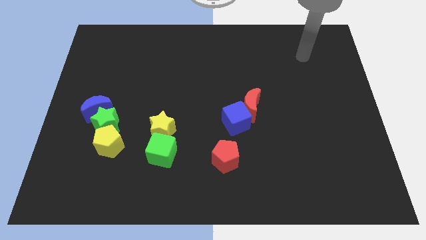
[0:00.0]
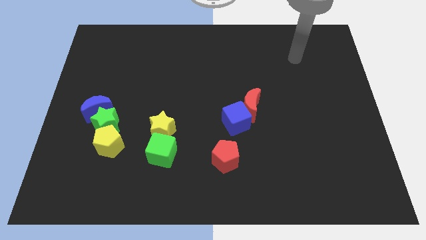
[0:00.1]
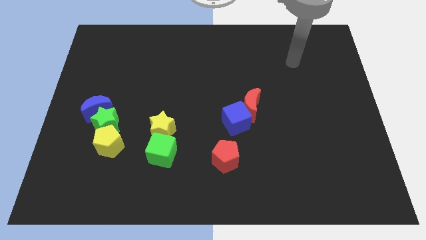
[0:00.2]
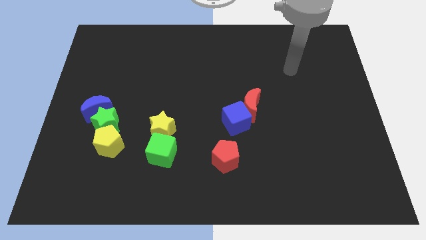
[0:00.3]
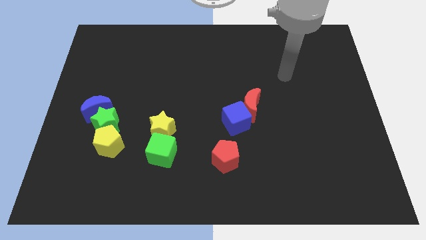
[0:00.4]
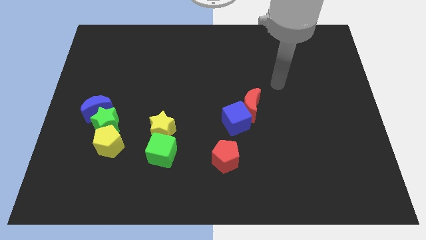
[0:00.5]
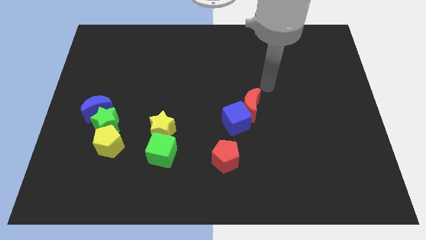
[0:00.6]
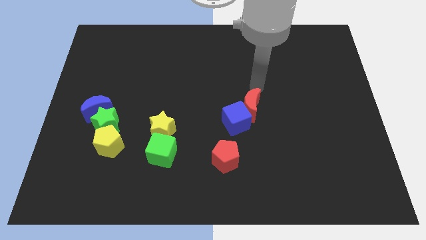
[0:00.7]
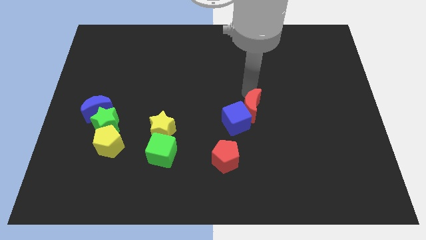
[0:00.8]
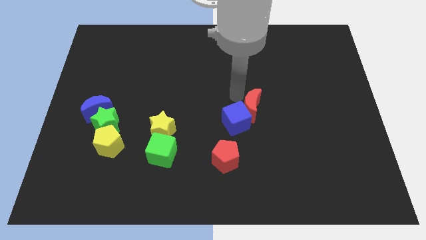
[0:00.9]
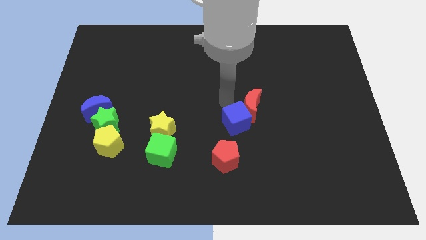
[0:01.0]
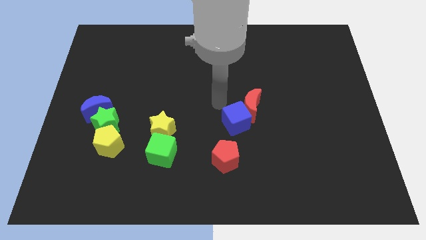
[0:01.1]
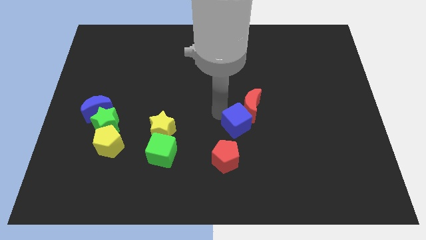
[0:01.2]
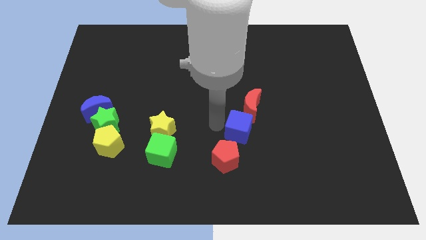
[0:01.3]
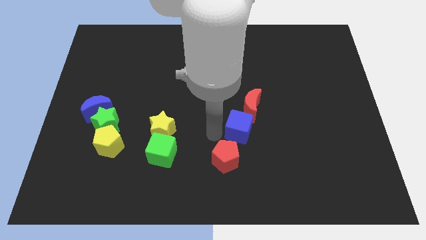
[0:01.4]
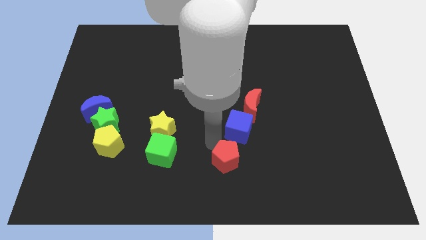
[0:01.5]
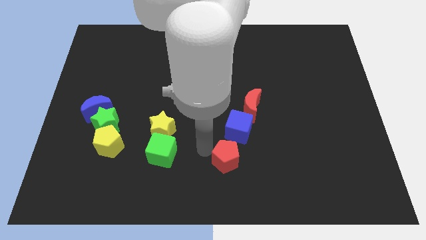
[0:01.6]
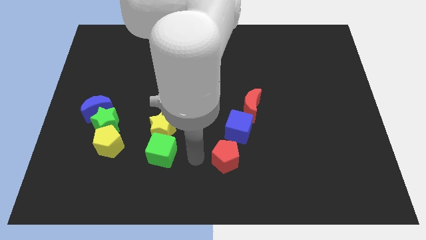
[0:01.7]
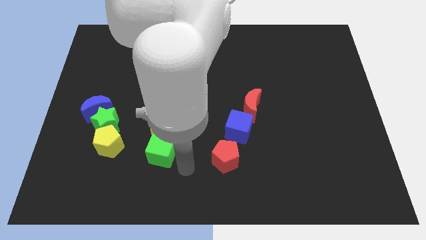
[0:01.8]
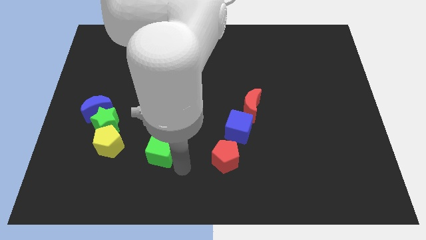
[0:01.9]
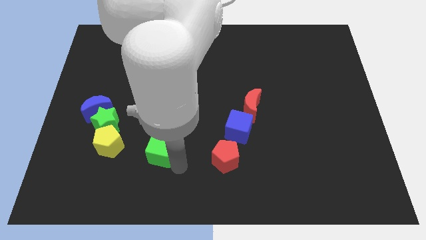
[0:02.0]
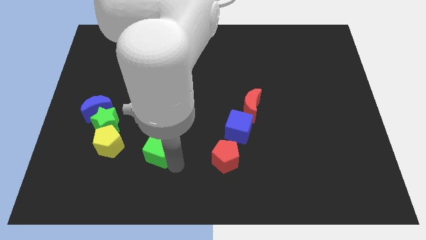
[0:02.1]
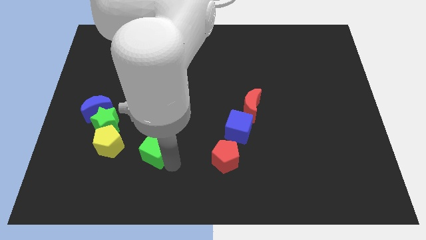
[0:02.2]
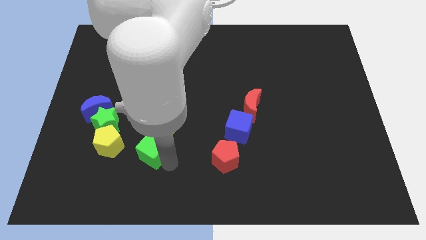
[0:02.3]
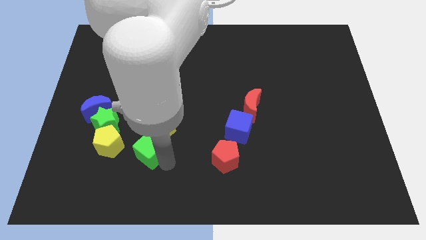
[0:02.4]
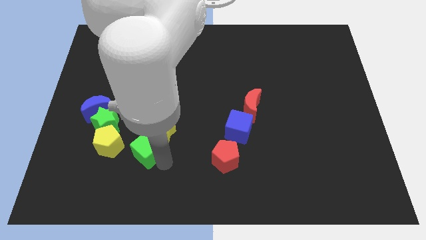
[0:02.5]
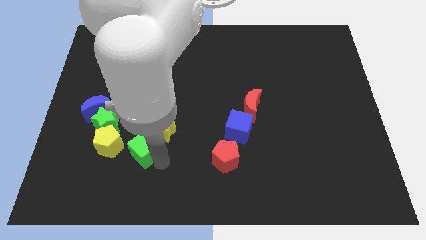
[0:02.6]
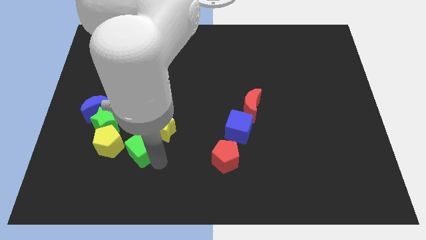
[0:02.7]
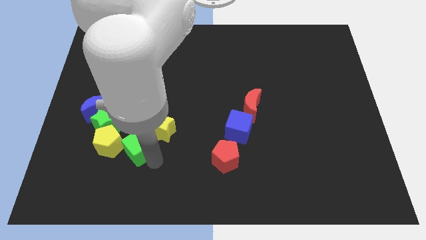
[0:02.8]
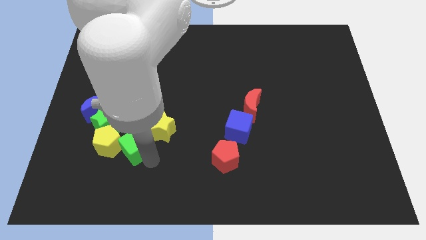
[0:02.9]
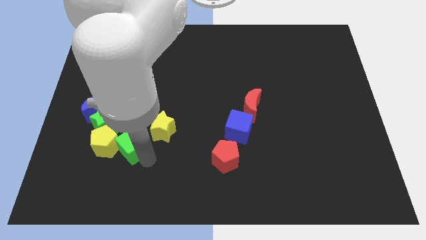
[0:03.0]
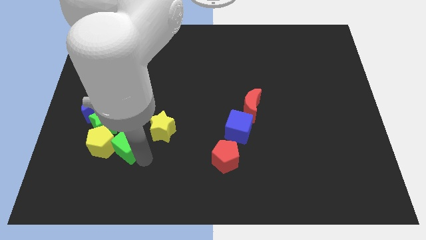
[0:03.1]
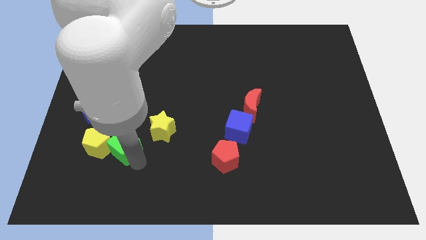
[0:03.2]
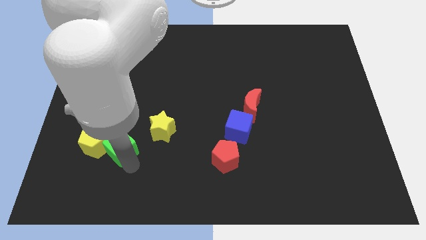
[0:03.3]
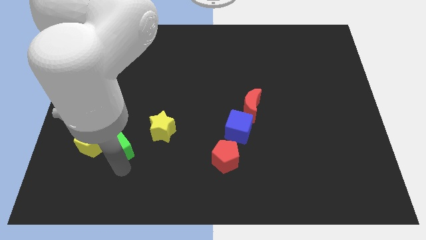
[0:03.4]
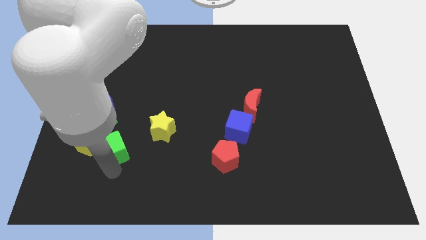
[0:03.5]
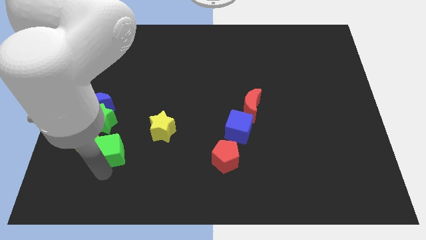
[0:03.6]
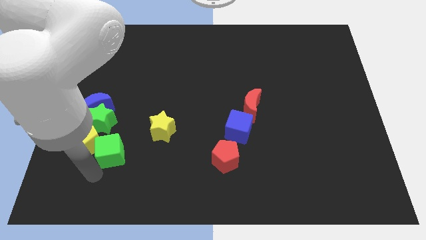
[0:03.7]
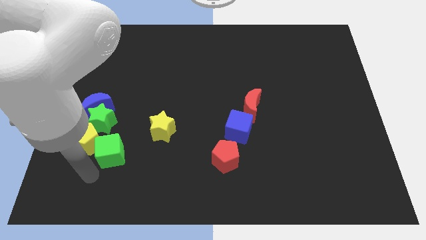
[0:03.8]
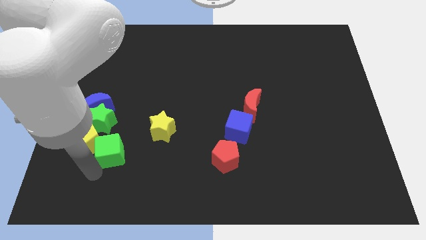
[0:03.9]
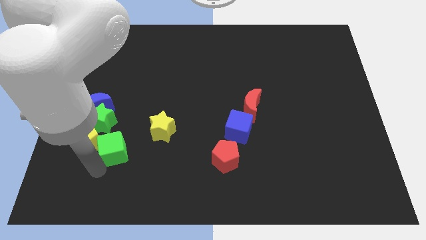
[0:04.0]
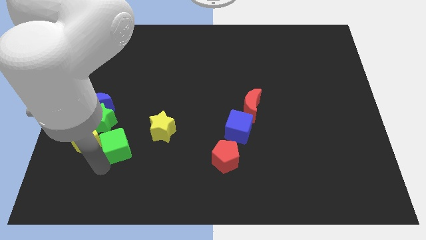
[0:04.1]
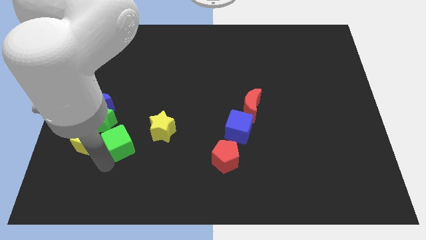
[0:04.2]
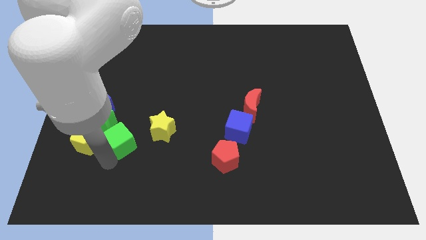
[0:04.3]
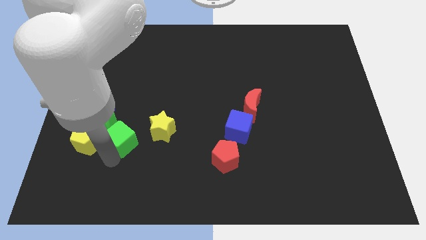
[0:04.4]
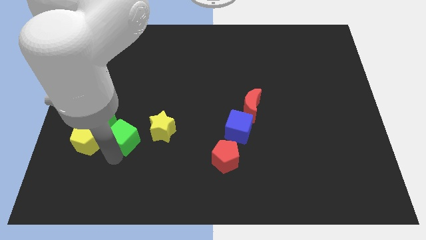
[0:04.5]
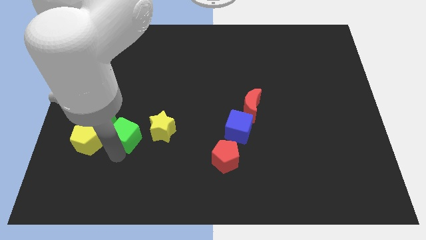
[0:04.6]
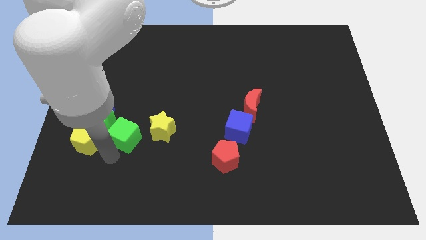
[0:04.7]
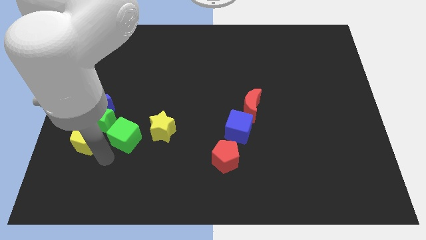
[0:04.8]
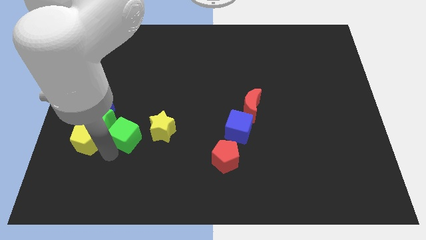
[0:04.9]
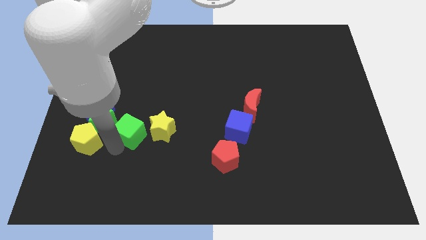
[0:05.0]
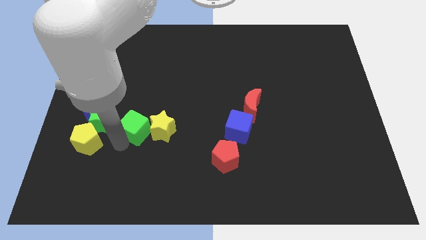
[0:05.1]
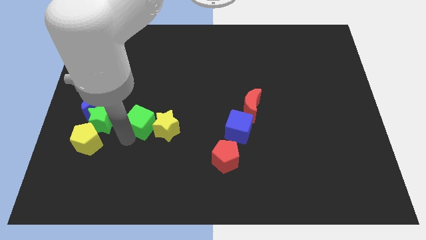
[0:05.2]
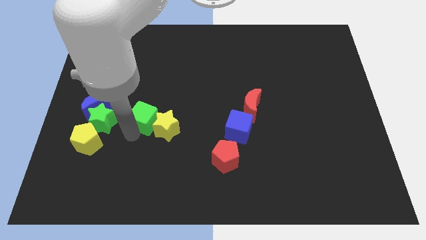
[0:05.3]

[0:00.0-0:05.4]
slightly move the green cube upwards

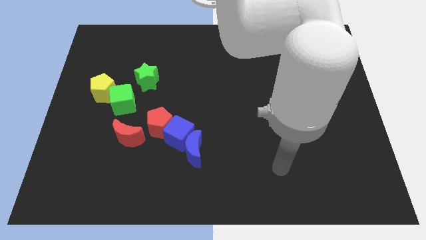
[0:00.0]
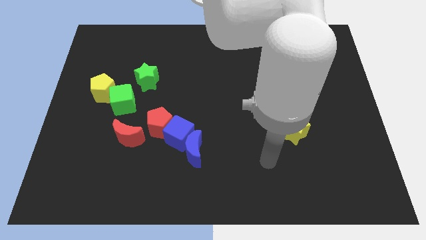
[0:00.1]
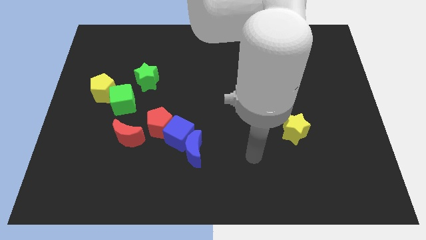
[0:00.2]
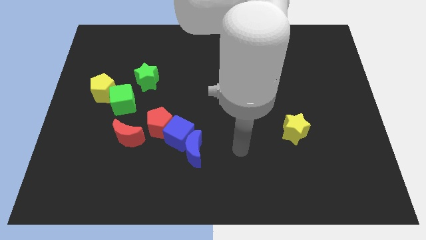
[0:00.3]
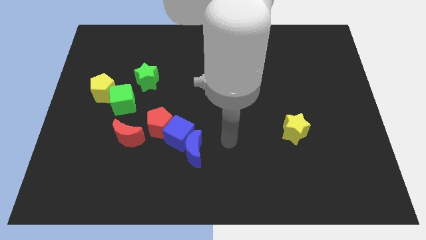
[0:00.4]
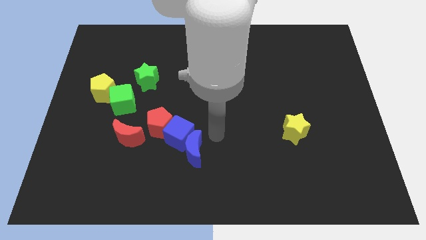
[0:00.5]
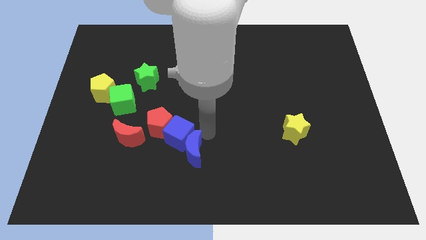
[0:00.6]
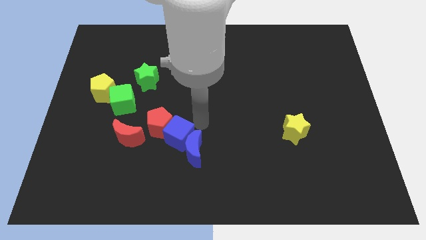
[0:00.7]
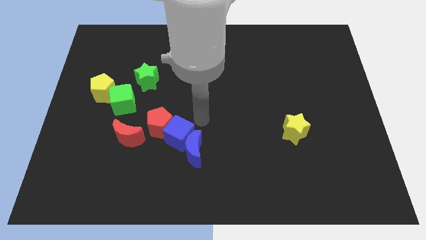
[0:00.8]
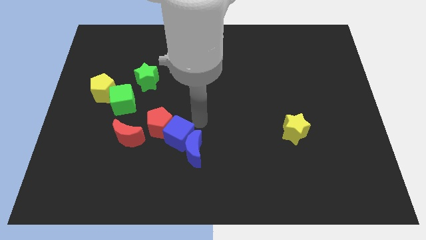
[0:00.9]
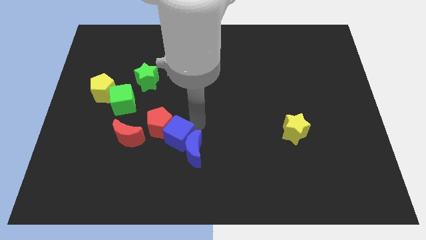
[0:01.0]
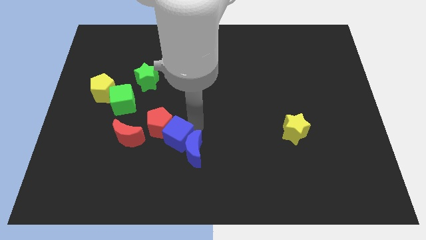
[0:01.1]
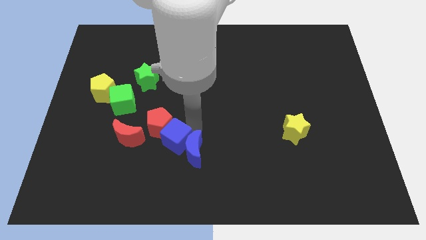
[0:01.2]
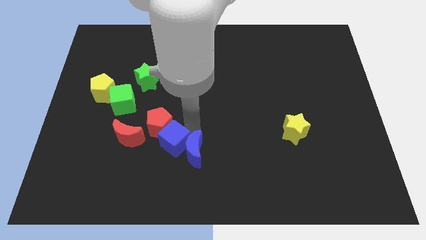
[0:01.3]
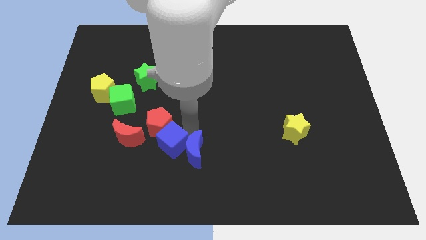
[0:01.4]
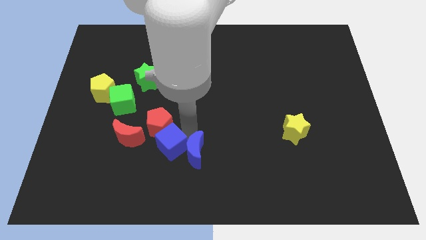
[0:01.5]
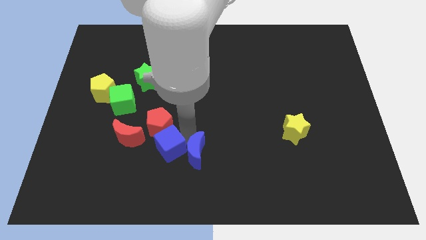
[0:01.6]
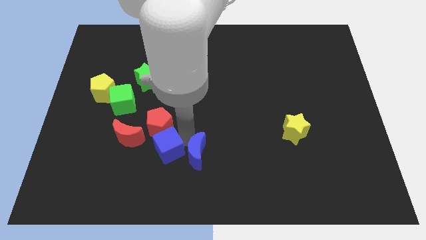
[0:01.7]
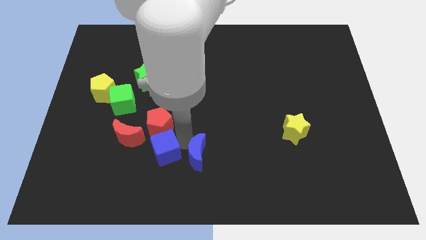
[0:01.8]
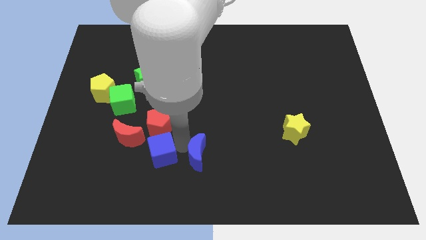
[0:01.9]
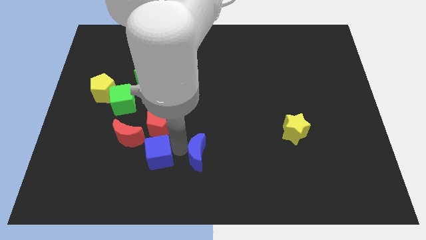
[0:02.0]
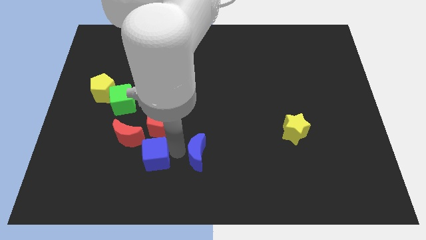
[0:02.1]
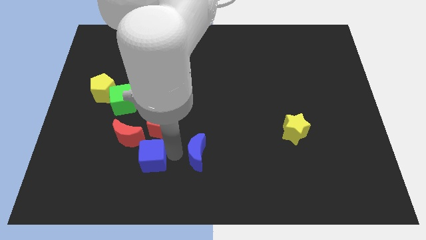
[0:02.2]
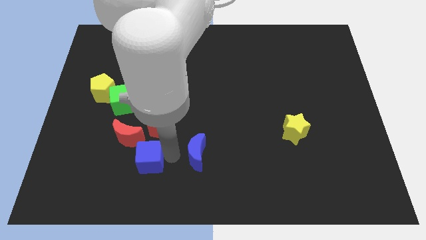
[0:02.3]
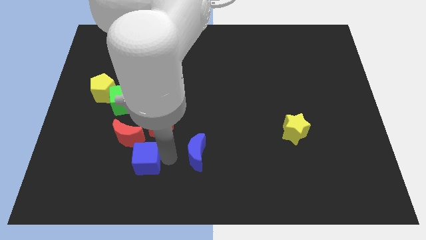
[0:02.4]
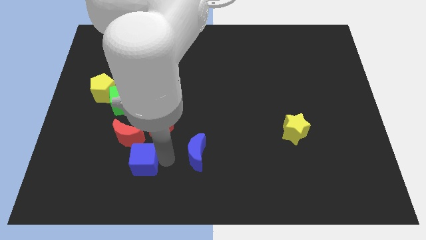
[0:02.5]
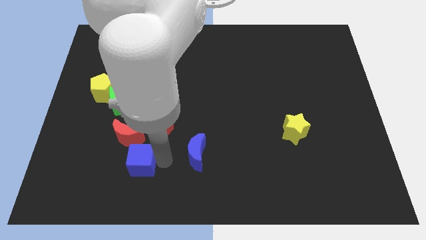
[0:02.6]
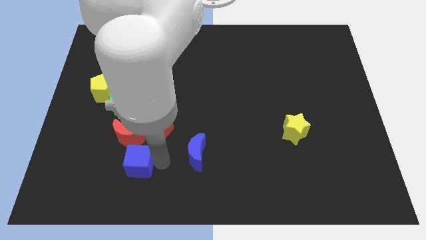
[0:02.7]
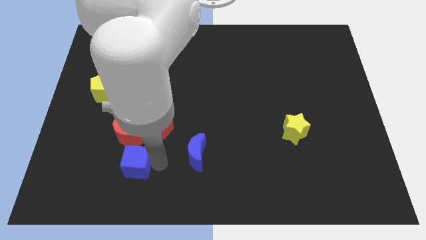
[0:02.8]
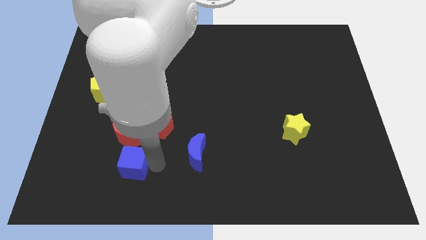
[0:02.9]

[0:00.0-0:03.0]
push the blue cube a little bit to the left
